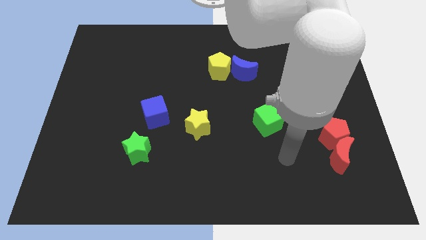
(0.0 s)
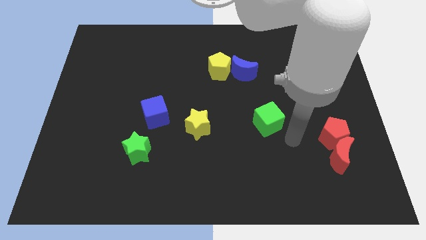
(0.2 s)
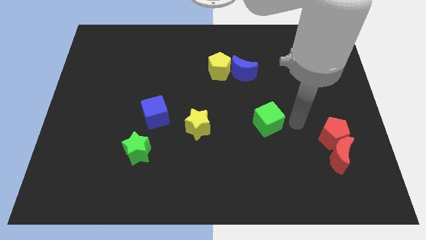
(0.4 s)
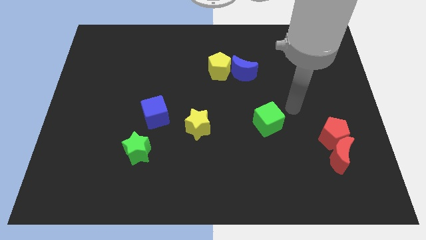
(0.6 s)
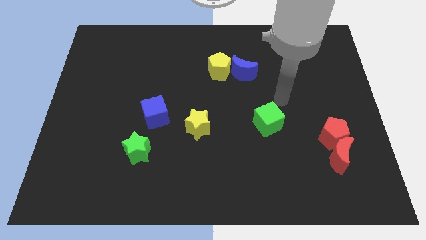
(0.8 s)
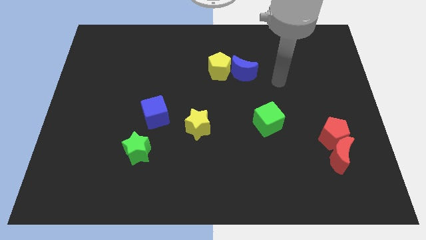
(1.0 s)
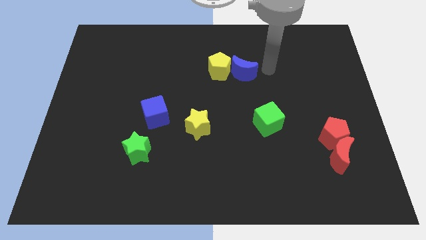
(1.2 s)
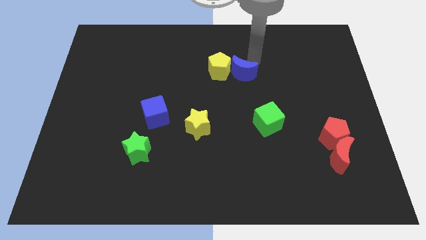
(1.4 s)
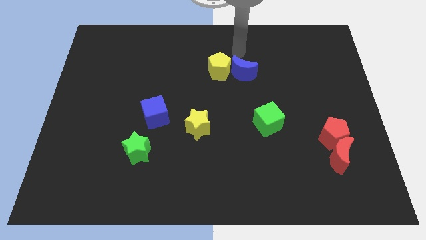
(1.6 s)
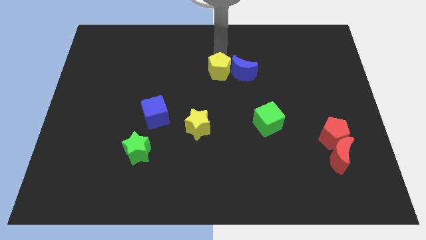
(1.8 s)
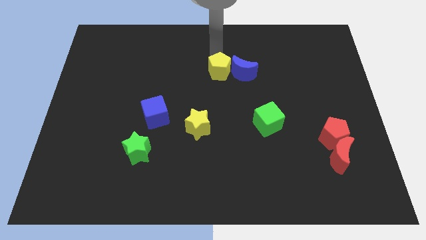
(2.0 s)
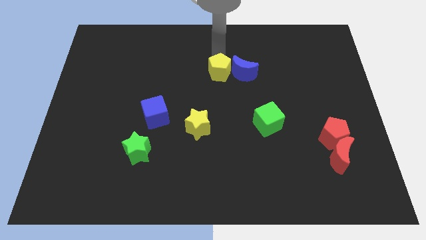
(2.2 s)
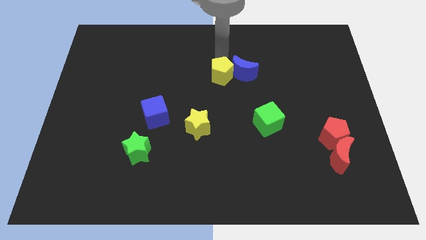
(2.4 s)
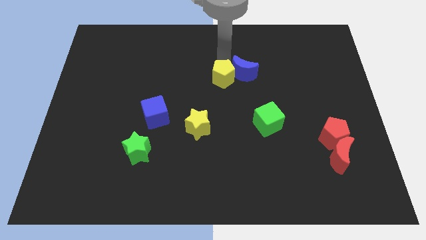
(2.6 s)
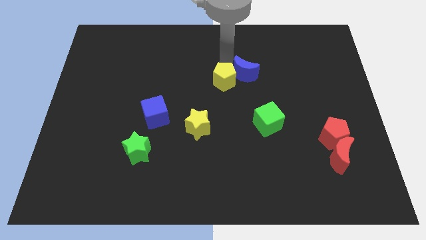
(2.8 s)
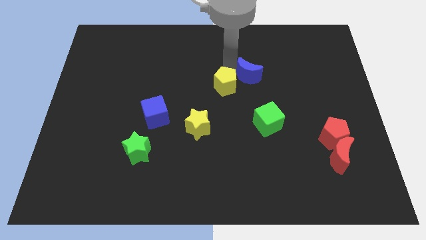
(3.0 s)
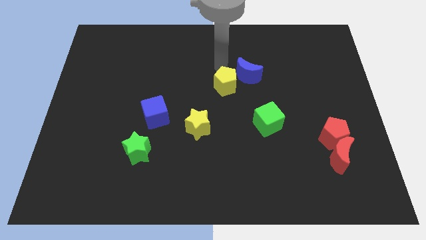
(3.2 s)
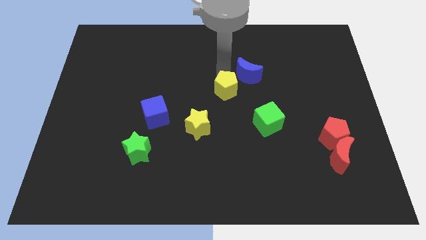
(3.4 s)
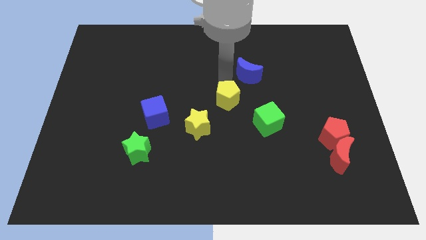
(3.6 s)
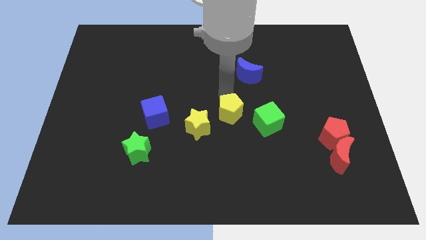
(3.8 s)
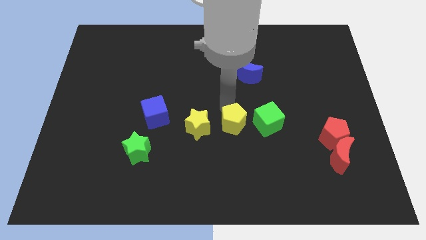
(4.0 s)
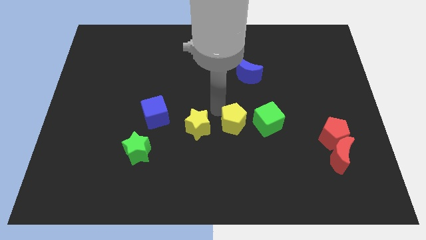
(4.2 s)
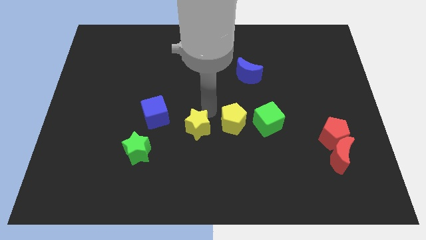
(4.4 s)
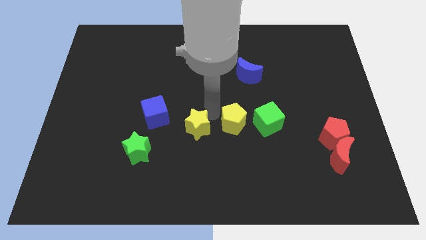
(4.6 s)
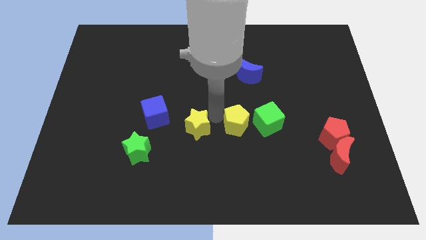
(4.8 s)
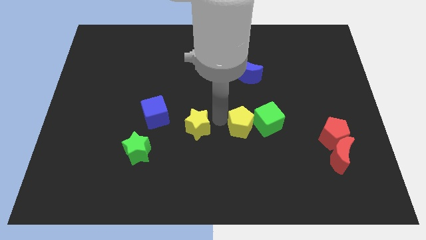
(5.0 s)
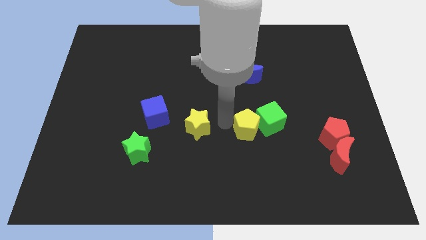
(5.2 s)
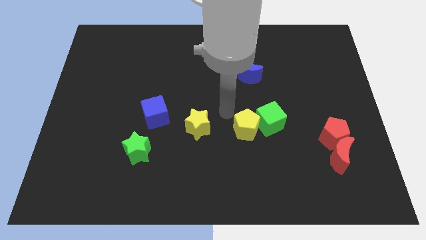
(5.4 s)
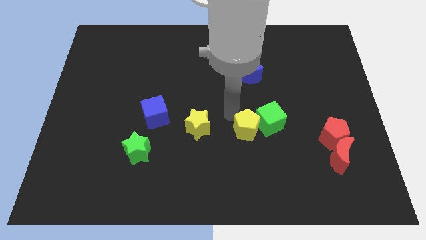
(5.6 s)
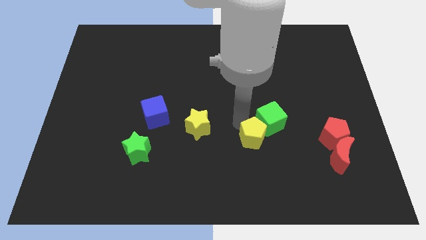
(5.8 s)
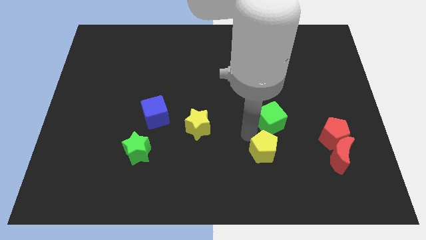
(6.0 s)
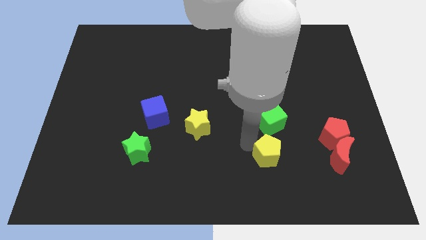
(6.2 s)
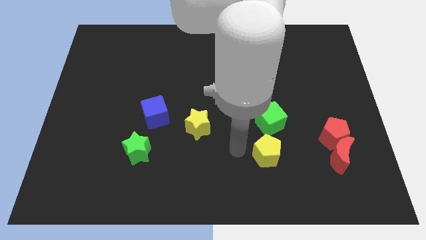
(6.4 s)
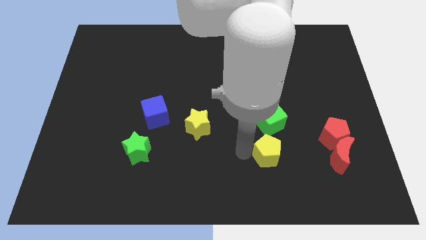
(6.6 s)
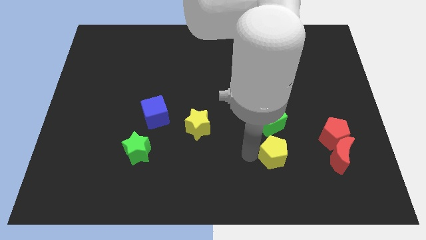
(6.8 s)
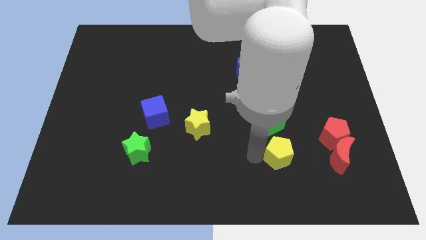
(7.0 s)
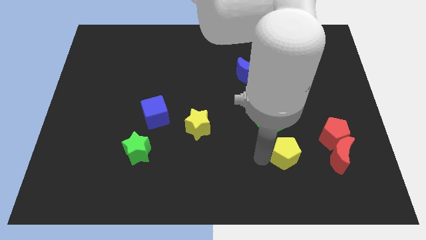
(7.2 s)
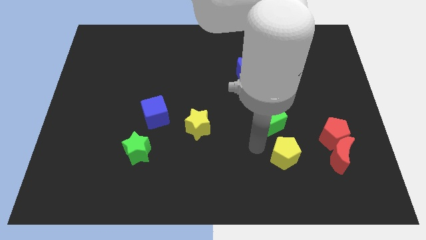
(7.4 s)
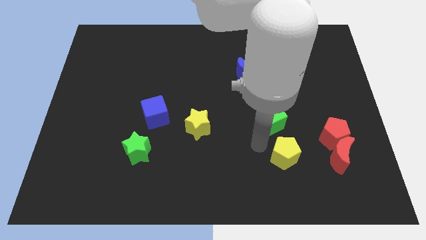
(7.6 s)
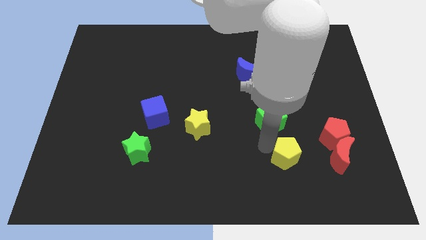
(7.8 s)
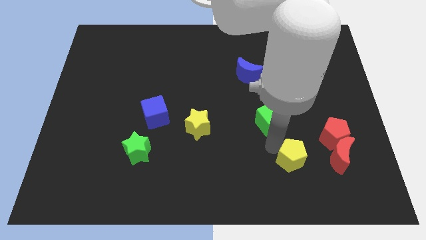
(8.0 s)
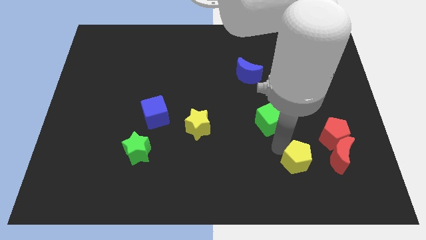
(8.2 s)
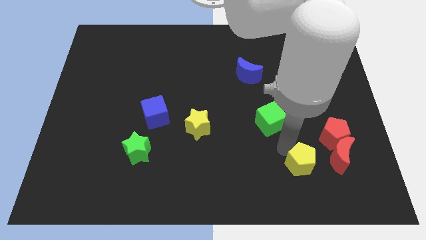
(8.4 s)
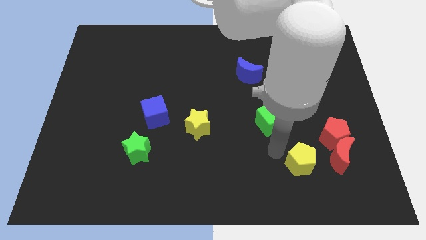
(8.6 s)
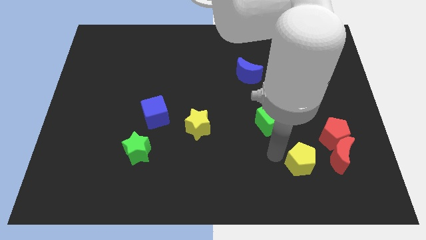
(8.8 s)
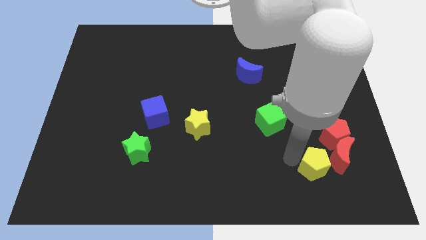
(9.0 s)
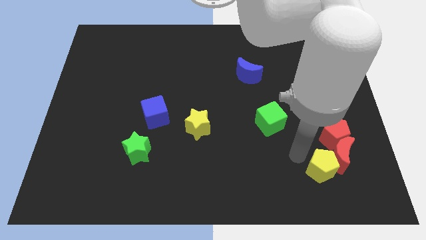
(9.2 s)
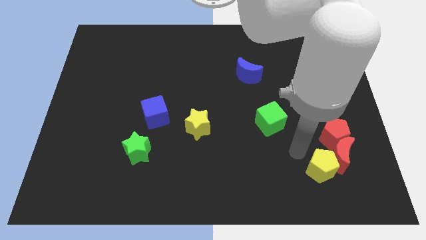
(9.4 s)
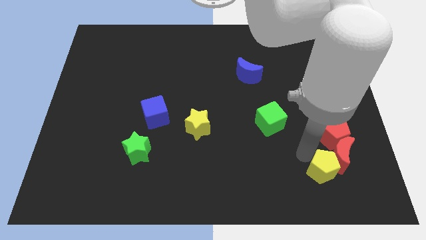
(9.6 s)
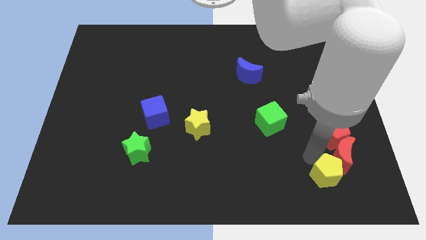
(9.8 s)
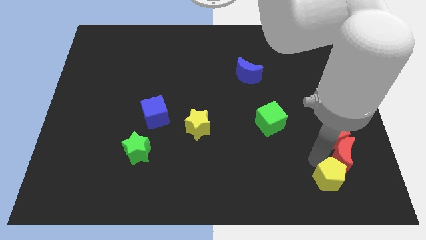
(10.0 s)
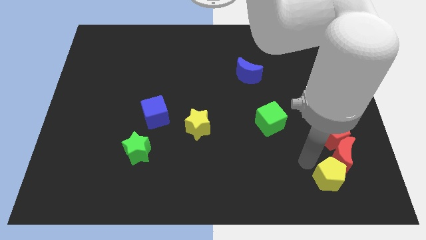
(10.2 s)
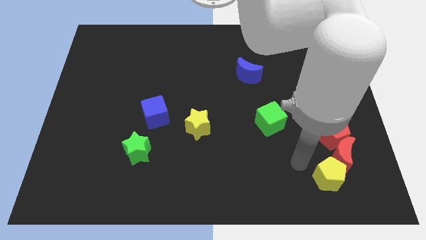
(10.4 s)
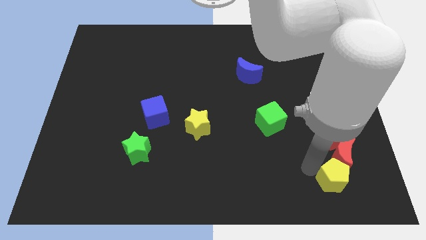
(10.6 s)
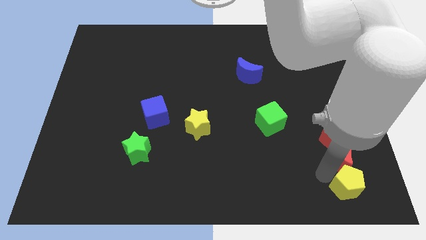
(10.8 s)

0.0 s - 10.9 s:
put the yellow pentagon to the lower right corner

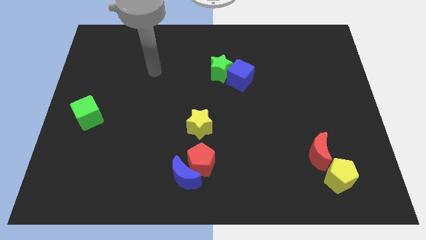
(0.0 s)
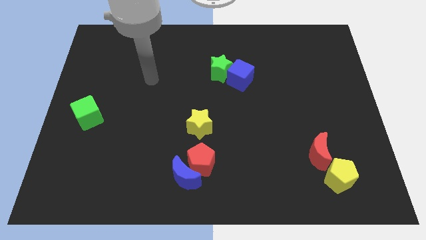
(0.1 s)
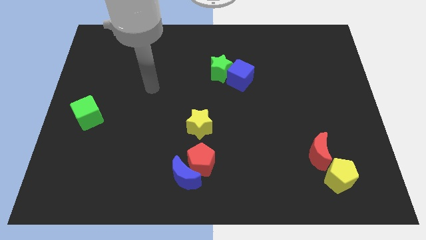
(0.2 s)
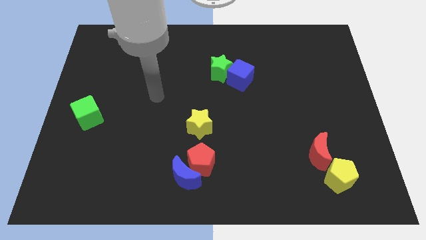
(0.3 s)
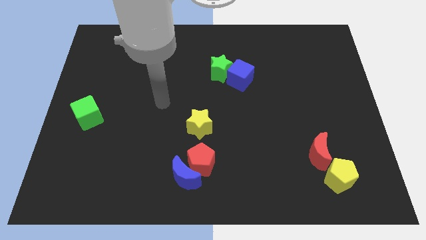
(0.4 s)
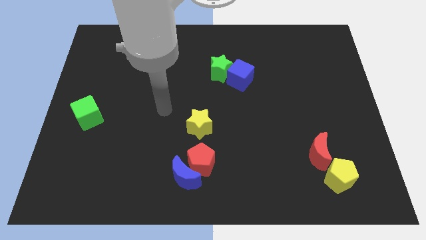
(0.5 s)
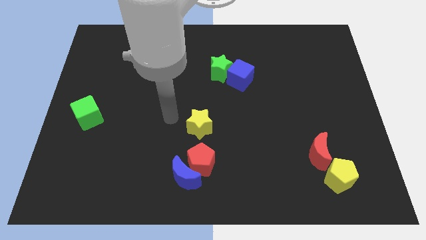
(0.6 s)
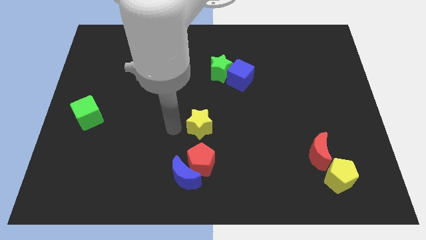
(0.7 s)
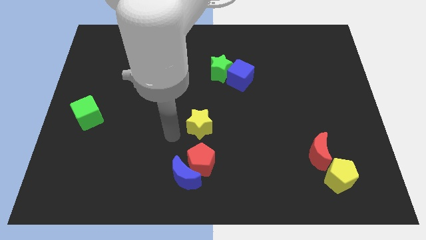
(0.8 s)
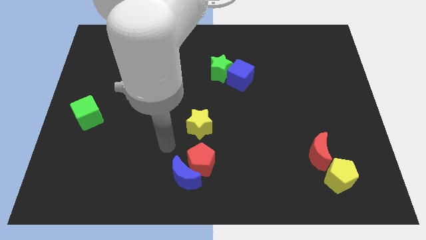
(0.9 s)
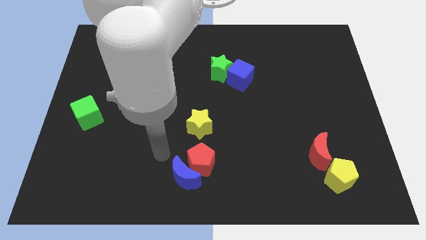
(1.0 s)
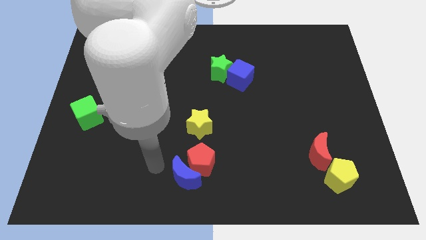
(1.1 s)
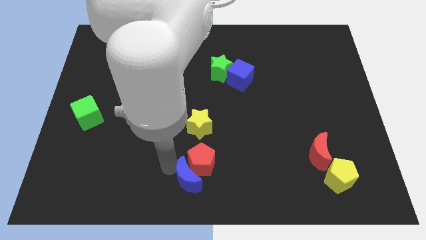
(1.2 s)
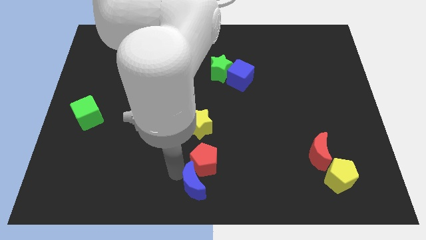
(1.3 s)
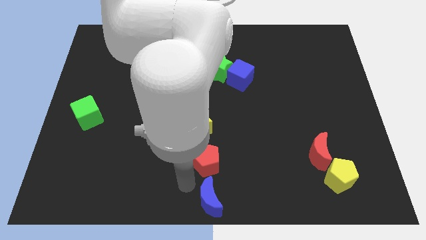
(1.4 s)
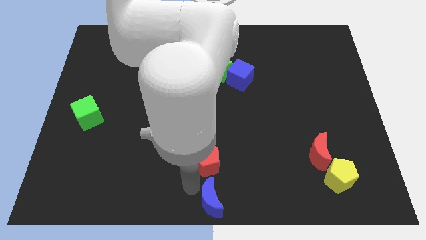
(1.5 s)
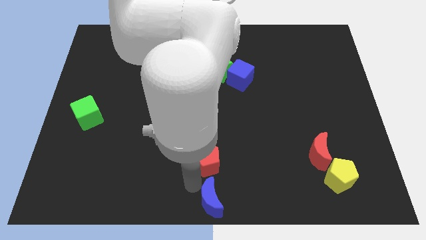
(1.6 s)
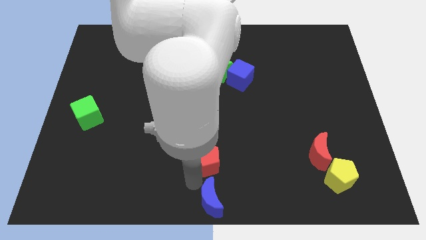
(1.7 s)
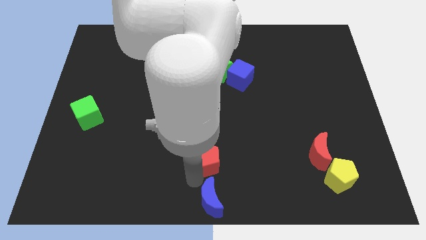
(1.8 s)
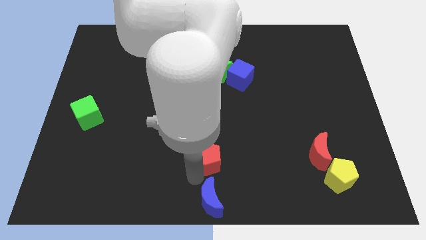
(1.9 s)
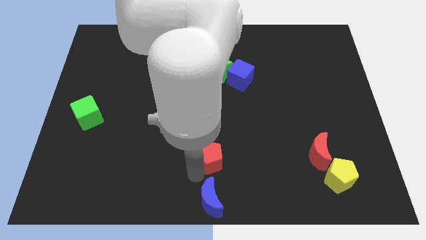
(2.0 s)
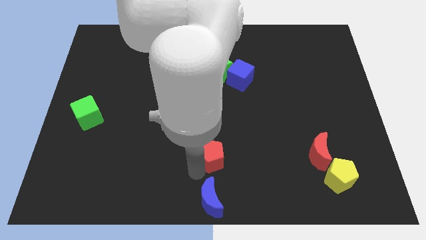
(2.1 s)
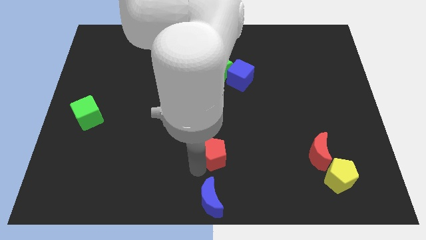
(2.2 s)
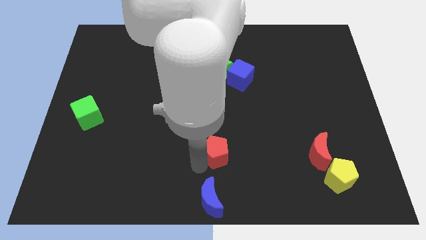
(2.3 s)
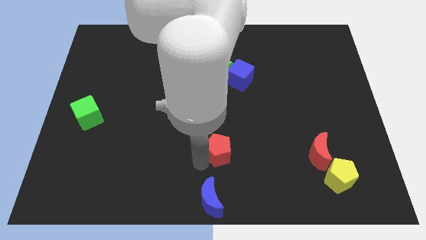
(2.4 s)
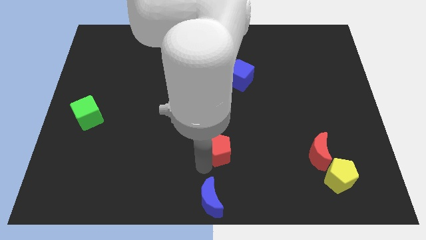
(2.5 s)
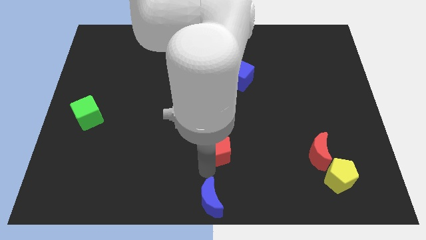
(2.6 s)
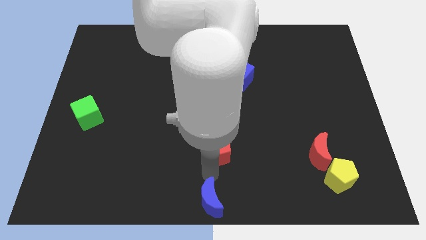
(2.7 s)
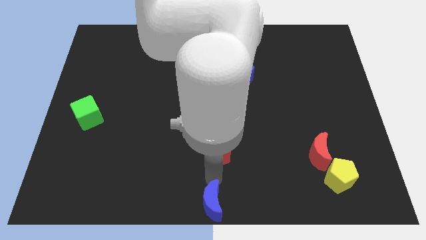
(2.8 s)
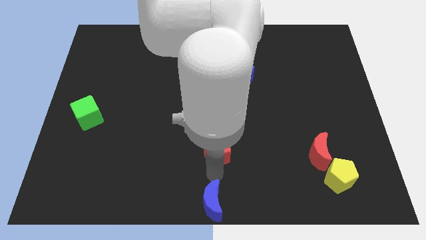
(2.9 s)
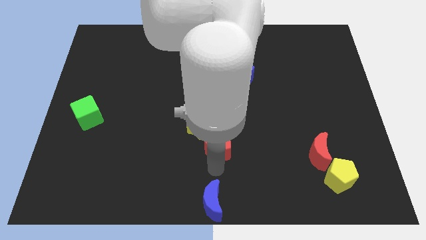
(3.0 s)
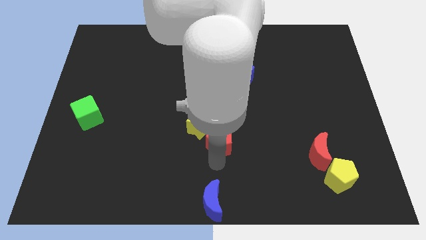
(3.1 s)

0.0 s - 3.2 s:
slide the red pentagon to the center of the board
